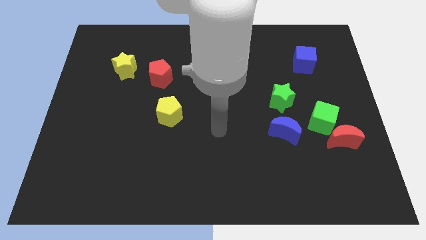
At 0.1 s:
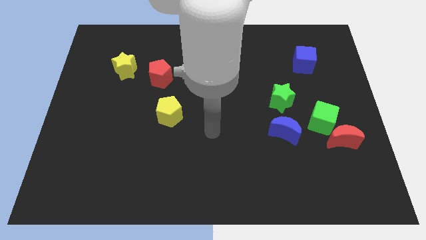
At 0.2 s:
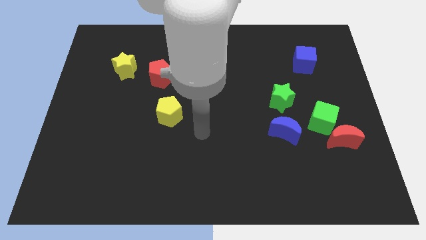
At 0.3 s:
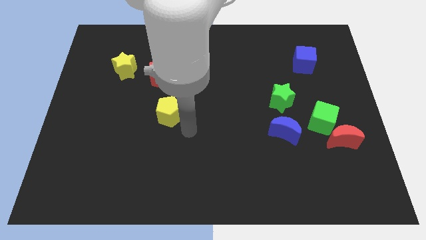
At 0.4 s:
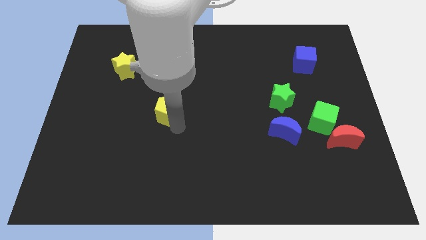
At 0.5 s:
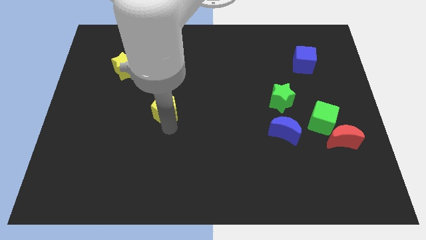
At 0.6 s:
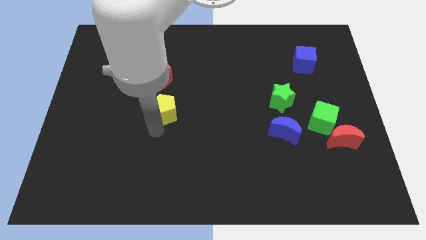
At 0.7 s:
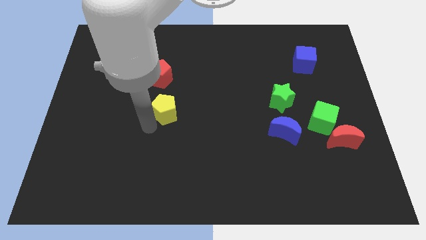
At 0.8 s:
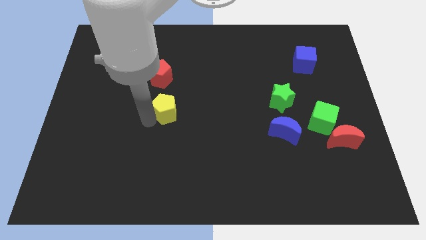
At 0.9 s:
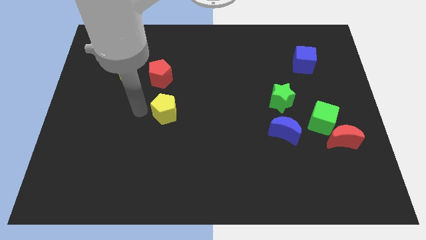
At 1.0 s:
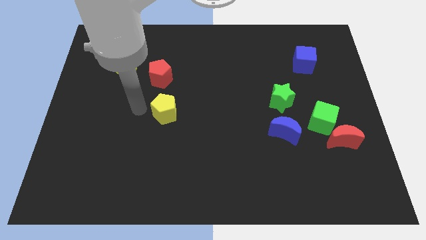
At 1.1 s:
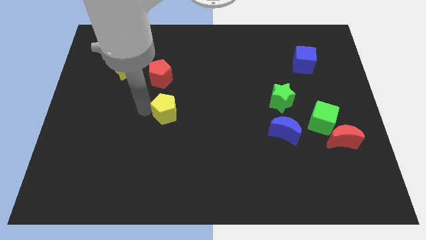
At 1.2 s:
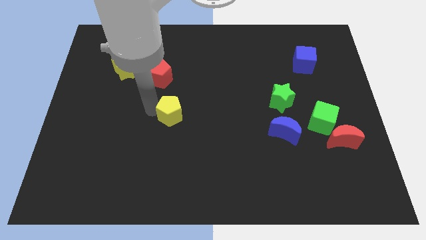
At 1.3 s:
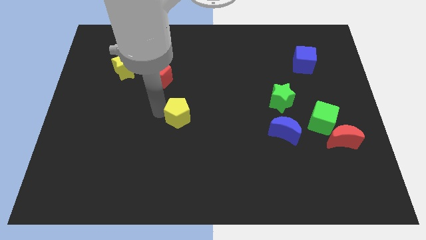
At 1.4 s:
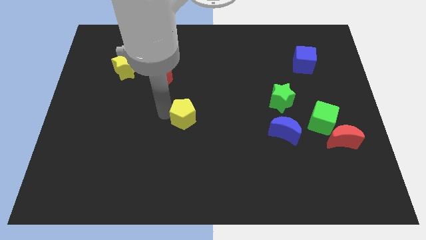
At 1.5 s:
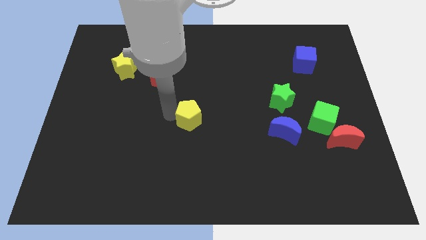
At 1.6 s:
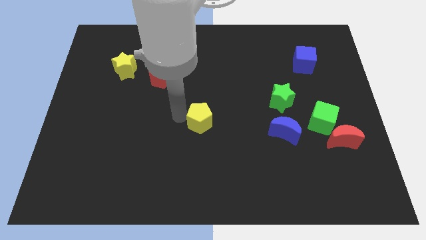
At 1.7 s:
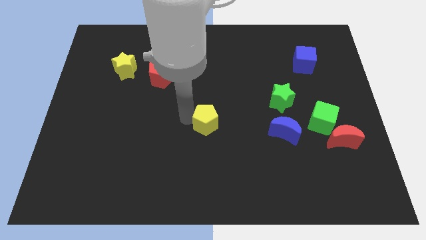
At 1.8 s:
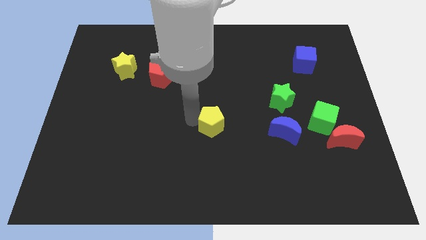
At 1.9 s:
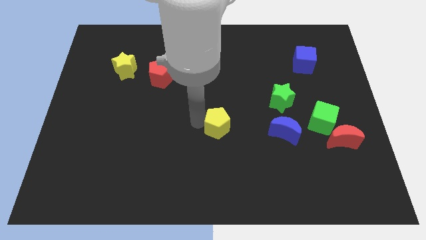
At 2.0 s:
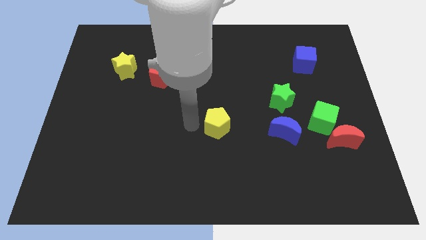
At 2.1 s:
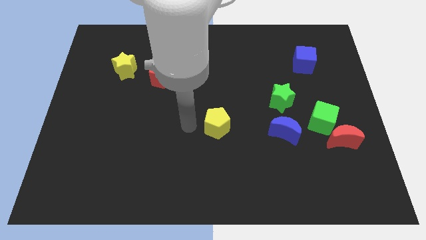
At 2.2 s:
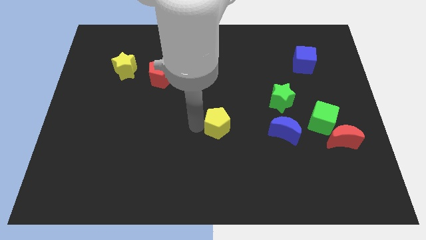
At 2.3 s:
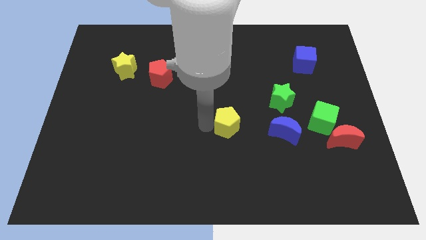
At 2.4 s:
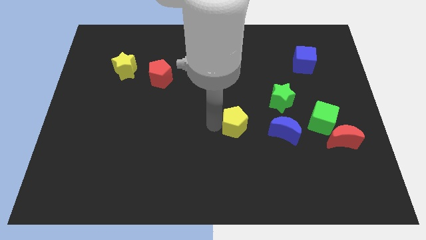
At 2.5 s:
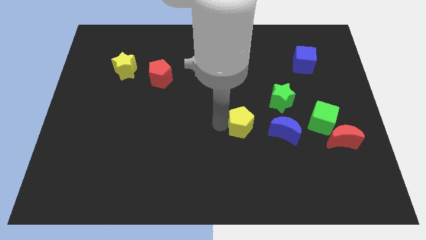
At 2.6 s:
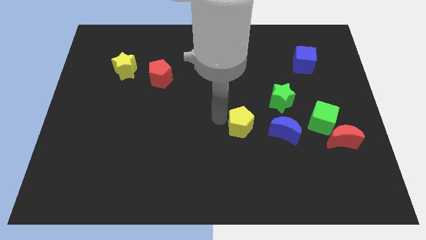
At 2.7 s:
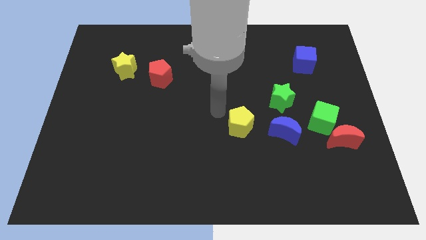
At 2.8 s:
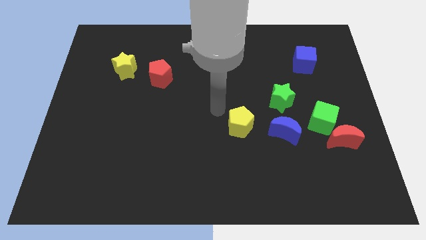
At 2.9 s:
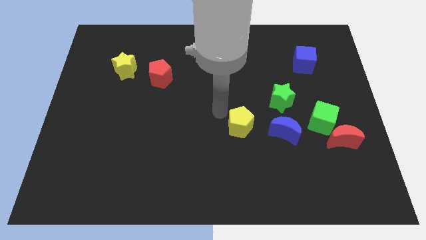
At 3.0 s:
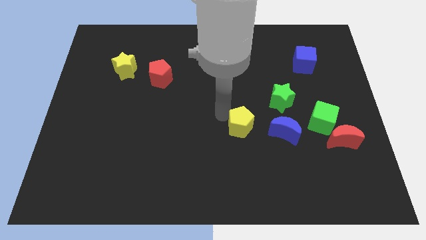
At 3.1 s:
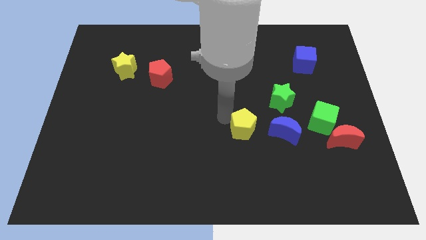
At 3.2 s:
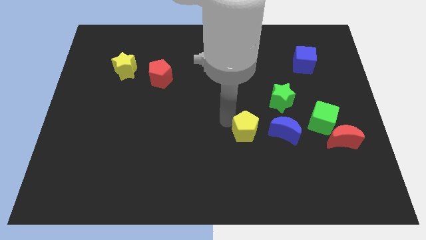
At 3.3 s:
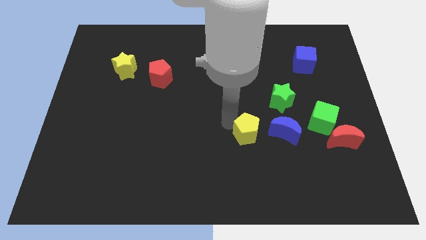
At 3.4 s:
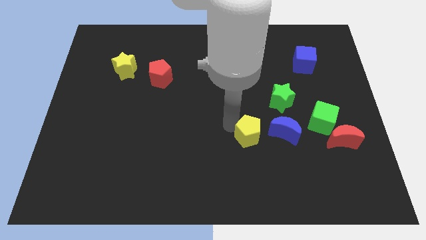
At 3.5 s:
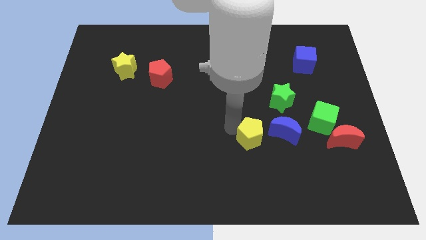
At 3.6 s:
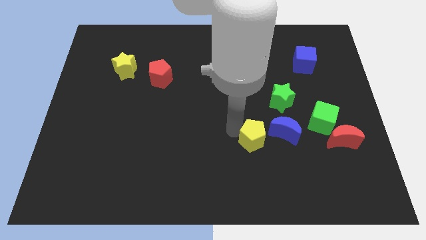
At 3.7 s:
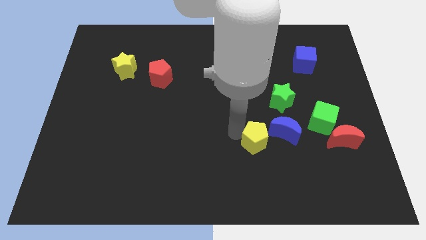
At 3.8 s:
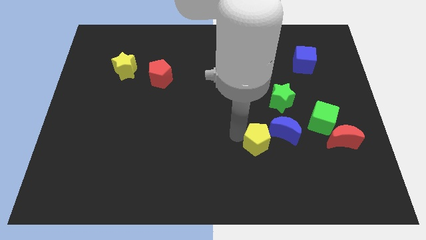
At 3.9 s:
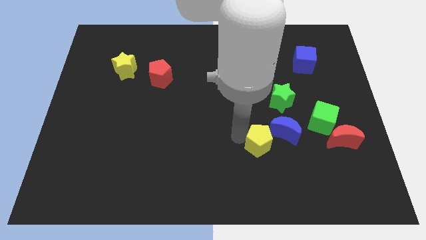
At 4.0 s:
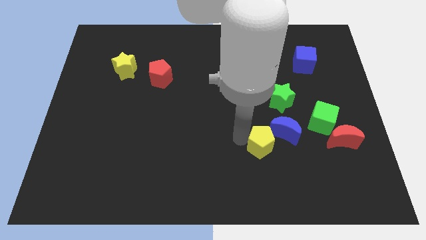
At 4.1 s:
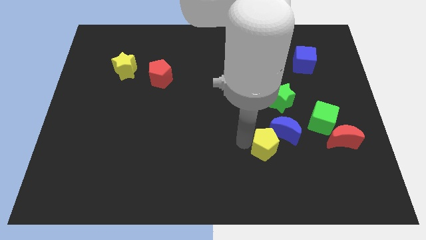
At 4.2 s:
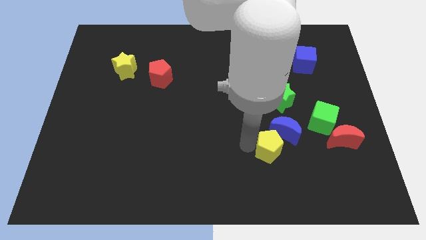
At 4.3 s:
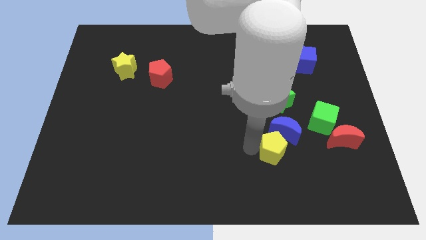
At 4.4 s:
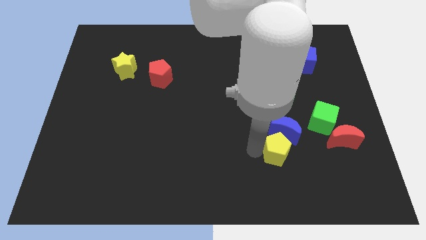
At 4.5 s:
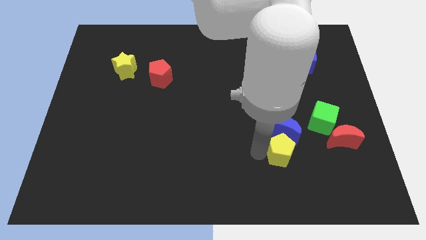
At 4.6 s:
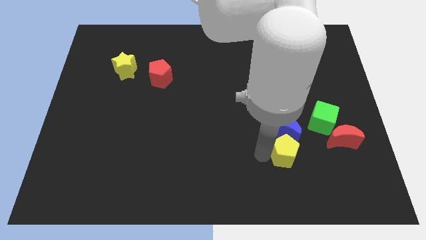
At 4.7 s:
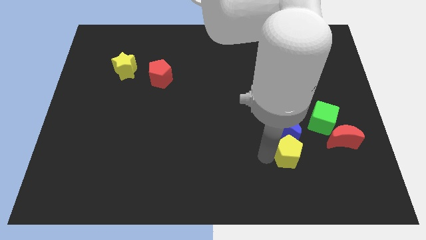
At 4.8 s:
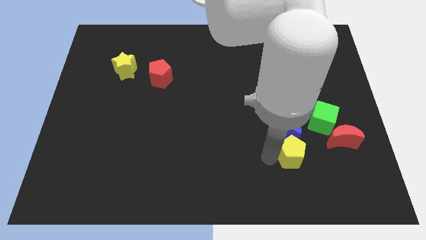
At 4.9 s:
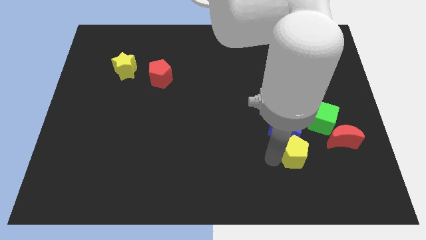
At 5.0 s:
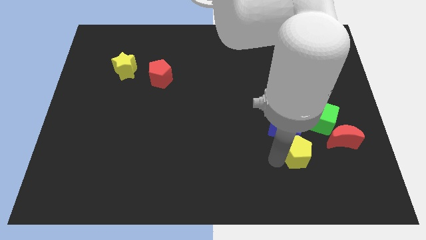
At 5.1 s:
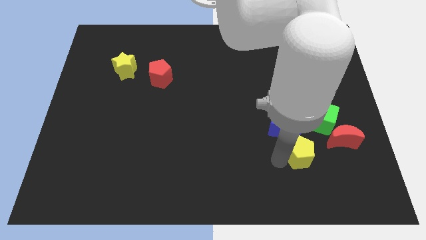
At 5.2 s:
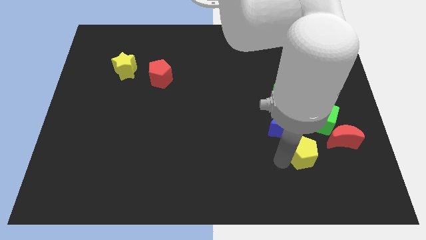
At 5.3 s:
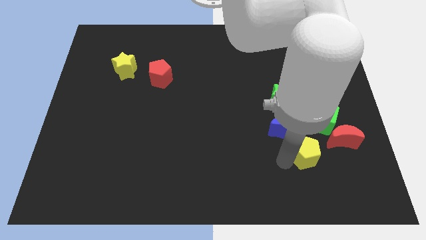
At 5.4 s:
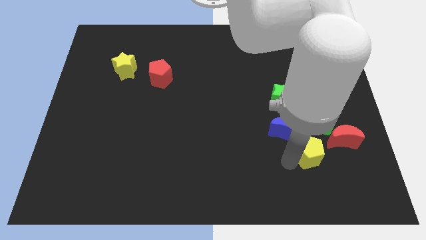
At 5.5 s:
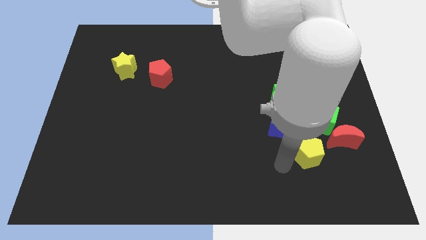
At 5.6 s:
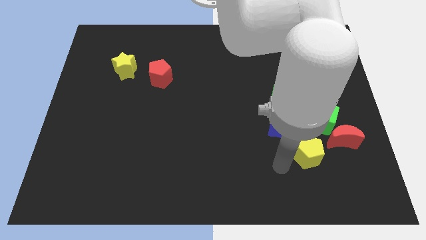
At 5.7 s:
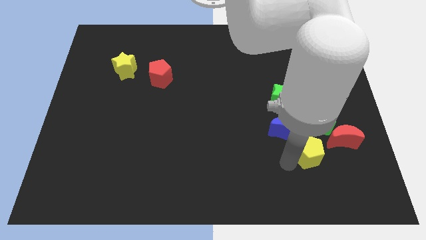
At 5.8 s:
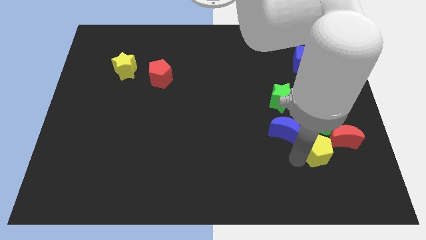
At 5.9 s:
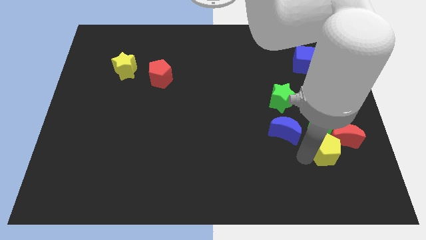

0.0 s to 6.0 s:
put the yellow pentagon close to the red moon

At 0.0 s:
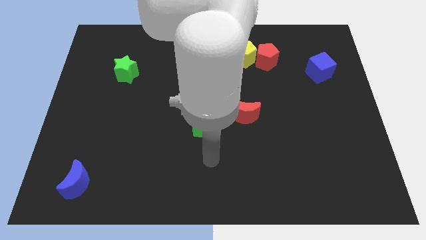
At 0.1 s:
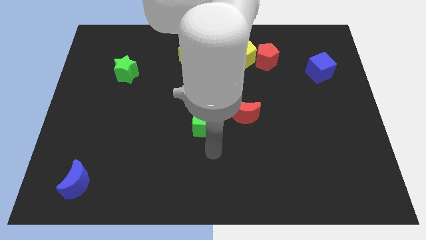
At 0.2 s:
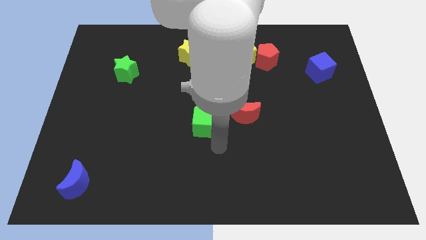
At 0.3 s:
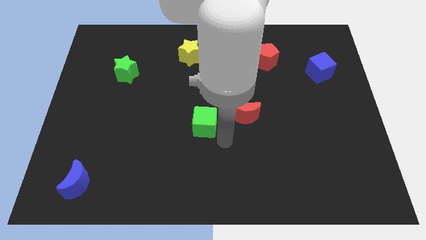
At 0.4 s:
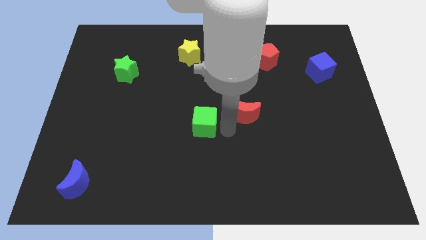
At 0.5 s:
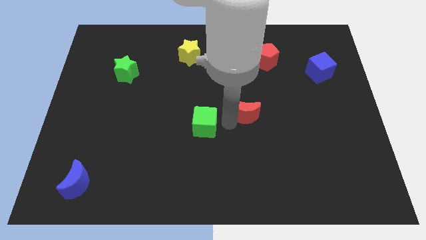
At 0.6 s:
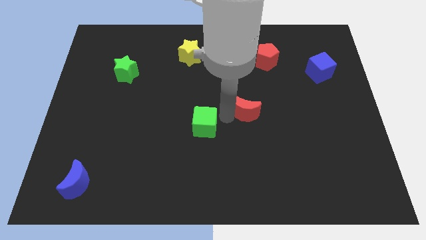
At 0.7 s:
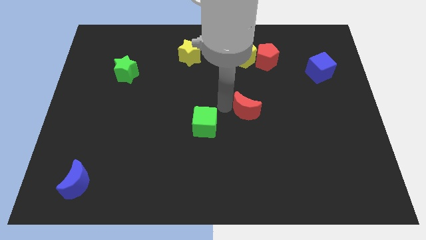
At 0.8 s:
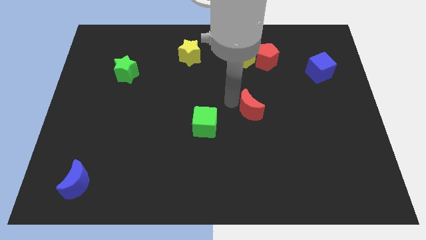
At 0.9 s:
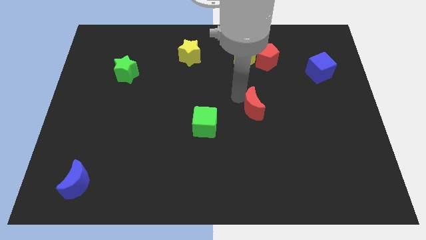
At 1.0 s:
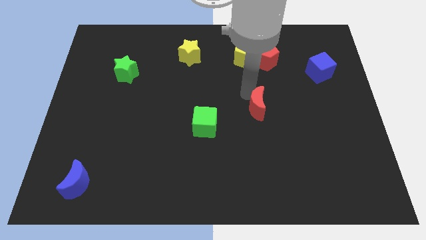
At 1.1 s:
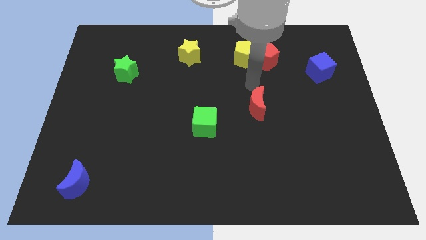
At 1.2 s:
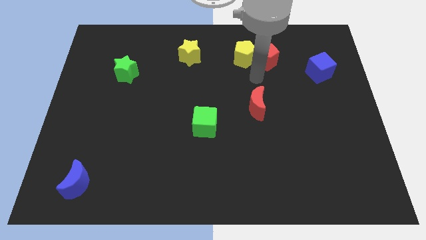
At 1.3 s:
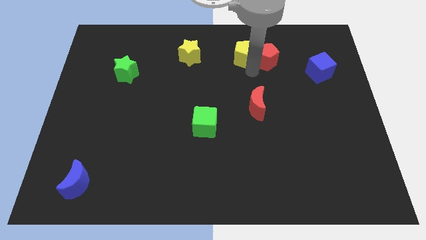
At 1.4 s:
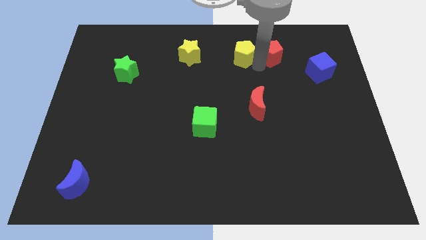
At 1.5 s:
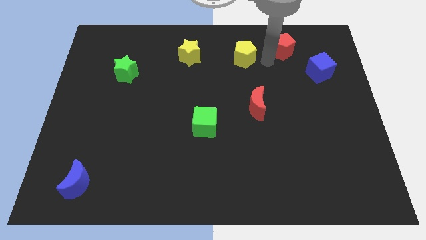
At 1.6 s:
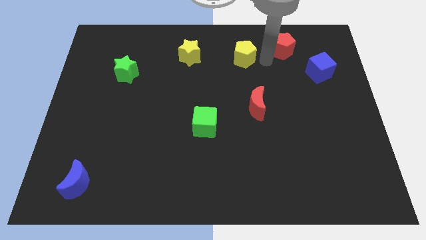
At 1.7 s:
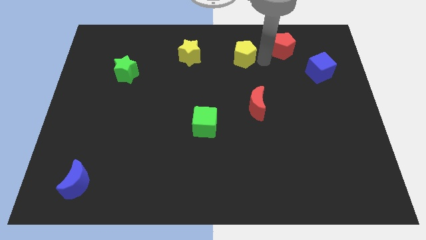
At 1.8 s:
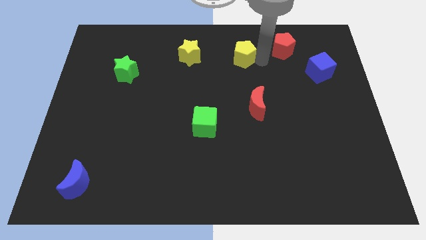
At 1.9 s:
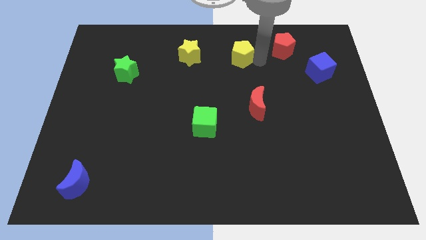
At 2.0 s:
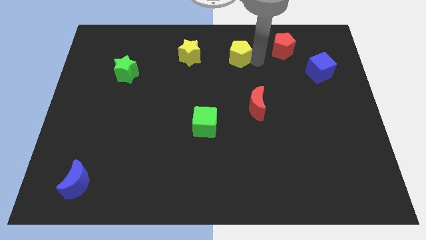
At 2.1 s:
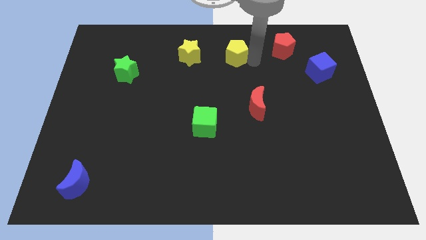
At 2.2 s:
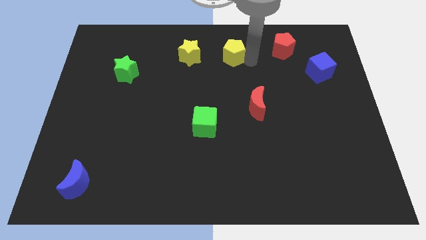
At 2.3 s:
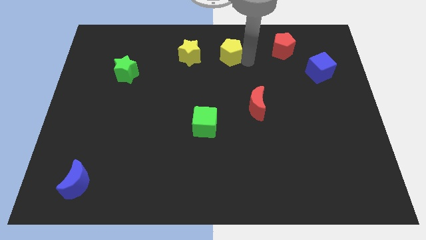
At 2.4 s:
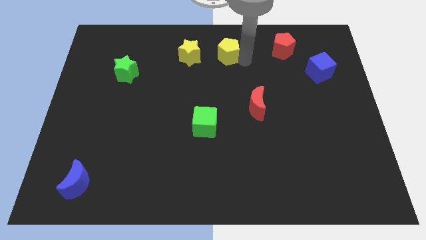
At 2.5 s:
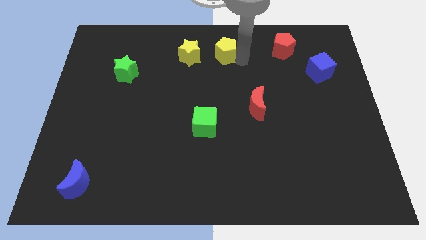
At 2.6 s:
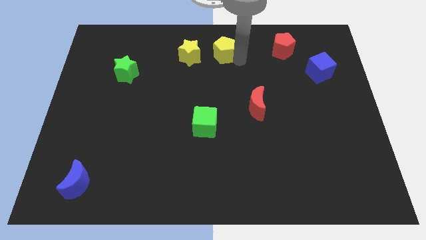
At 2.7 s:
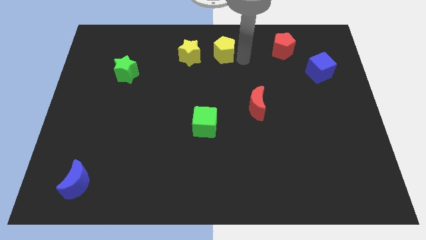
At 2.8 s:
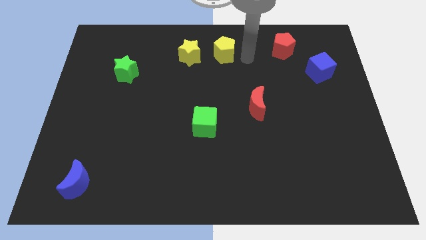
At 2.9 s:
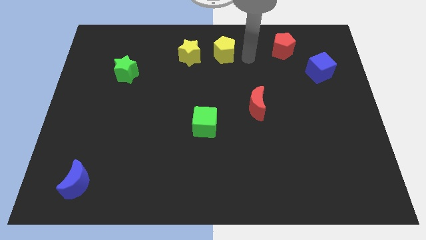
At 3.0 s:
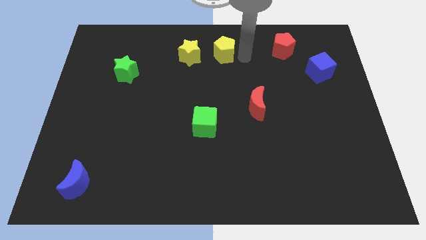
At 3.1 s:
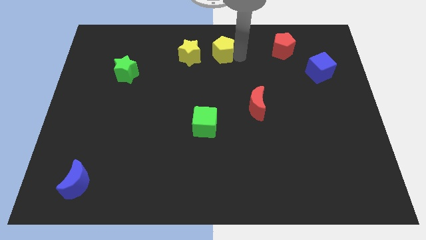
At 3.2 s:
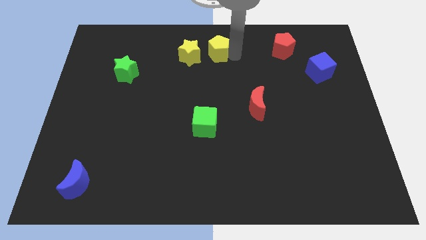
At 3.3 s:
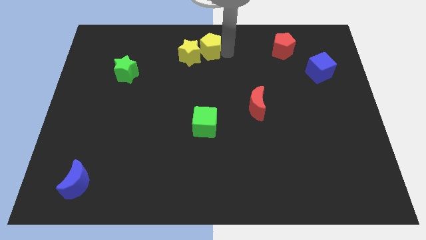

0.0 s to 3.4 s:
slide the yellow pentagon close to the yellow star
